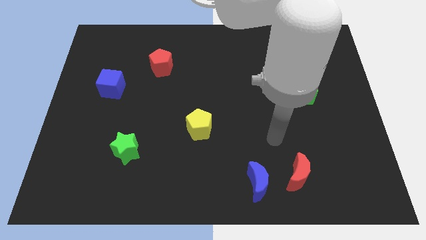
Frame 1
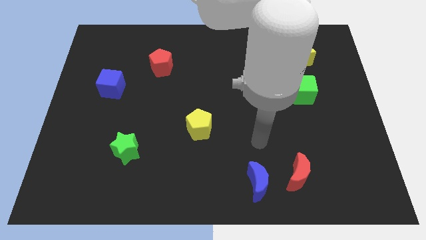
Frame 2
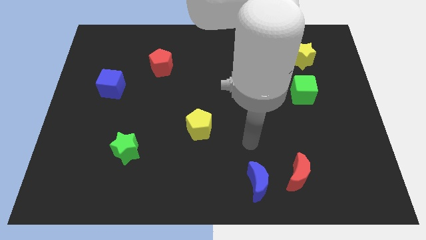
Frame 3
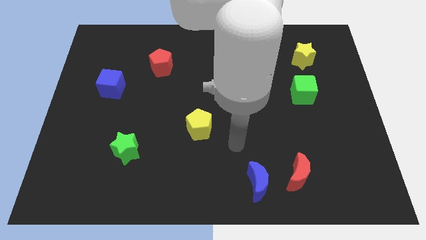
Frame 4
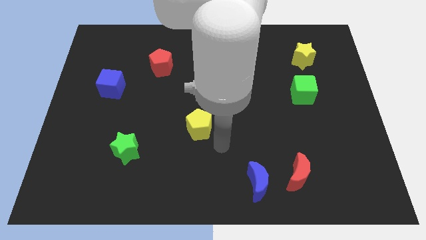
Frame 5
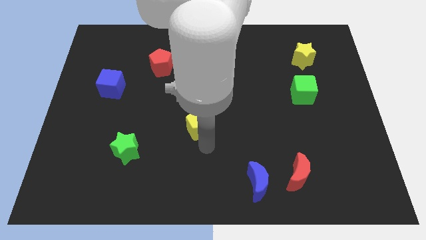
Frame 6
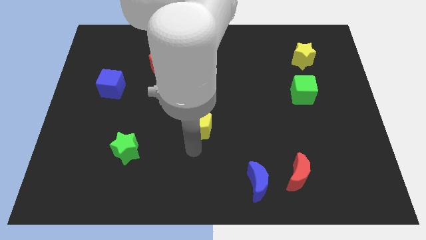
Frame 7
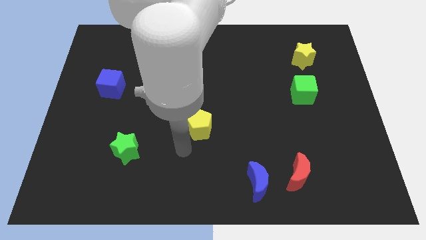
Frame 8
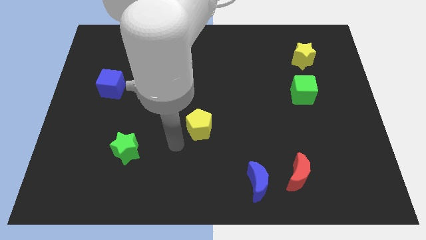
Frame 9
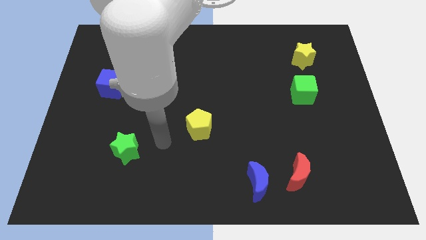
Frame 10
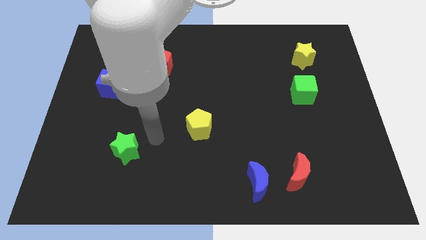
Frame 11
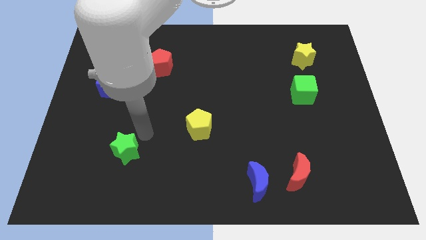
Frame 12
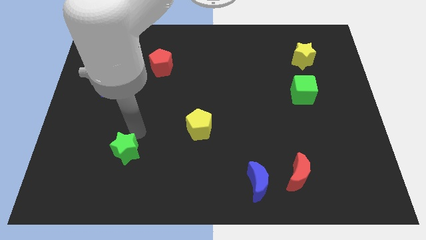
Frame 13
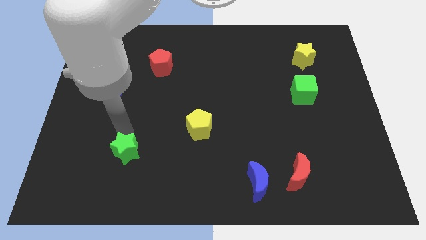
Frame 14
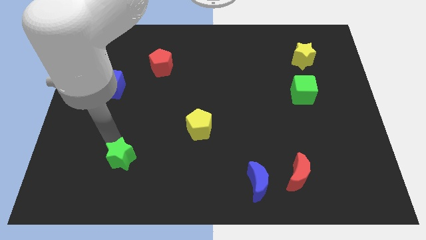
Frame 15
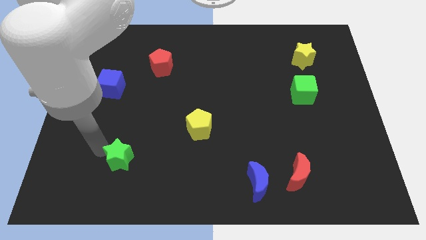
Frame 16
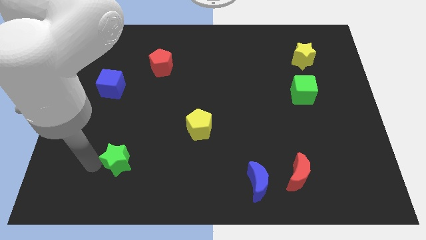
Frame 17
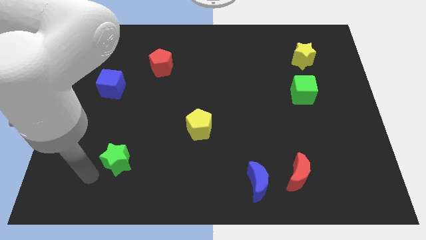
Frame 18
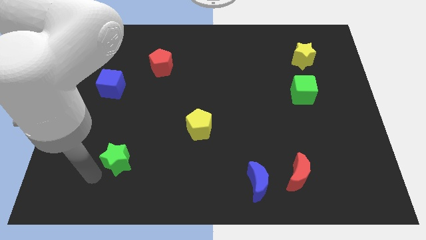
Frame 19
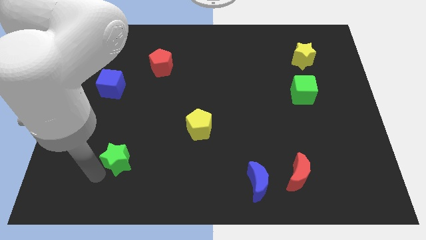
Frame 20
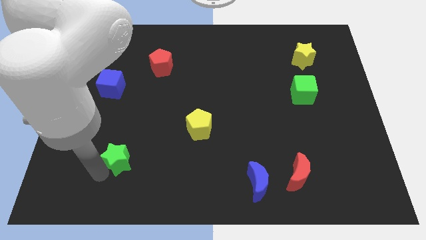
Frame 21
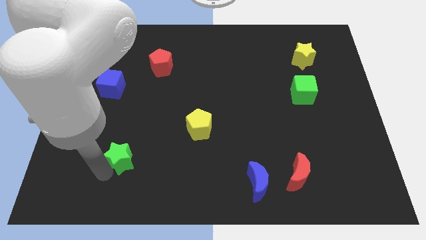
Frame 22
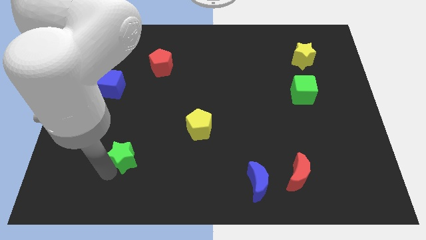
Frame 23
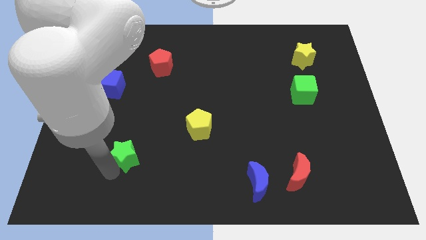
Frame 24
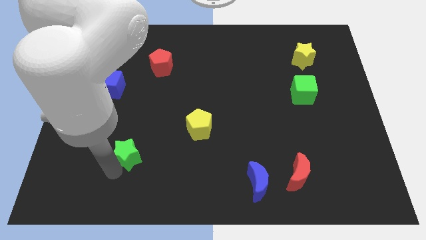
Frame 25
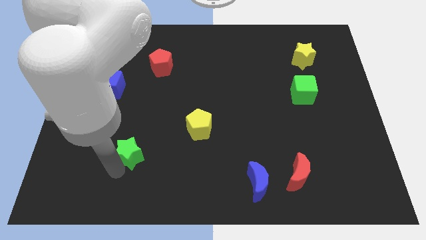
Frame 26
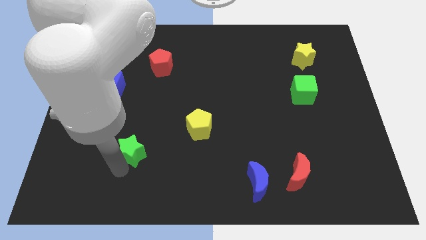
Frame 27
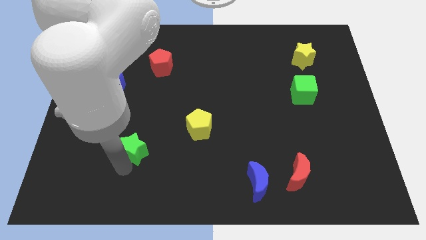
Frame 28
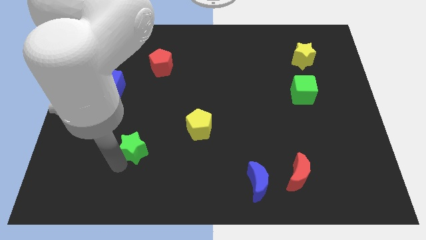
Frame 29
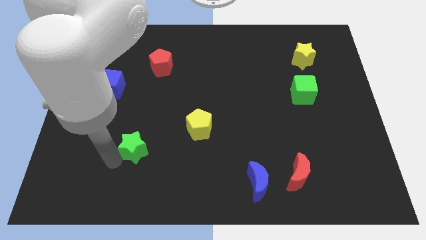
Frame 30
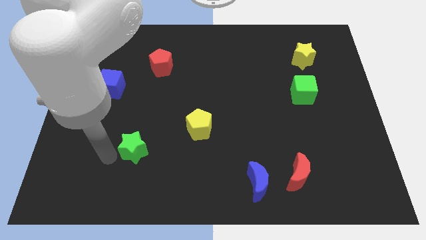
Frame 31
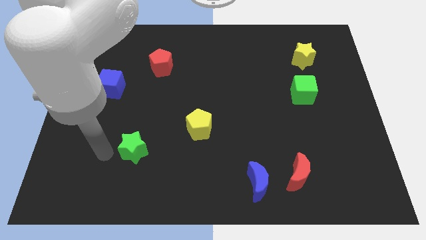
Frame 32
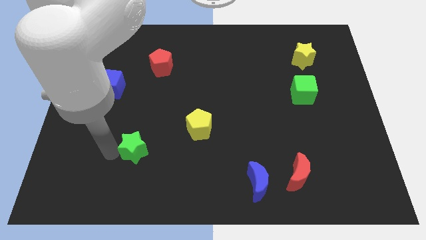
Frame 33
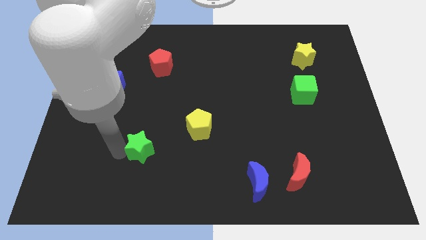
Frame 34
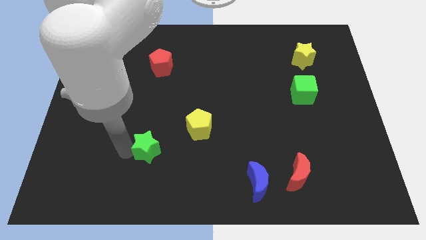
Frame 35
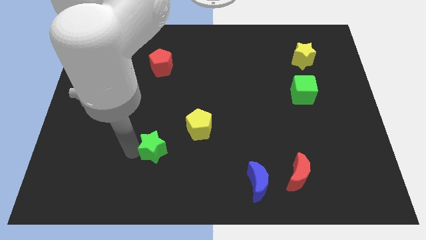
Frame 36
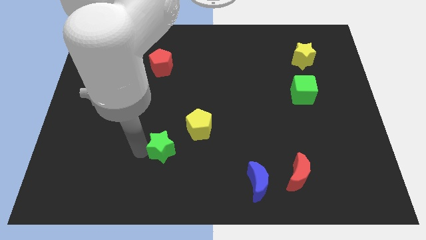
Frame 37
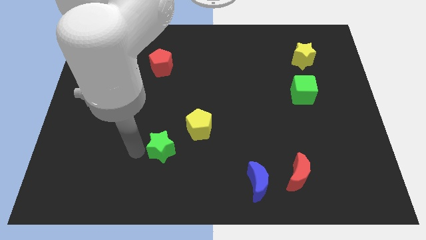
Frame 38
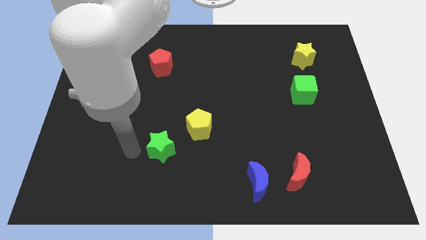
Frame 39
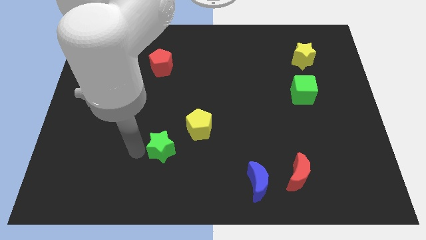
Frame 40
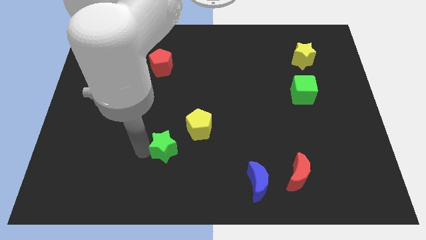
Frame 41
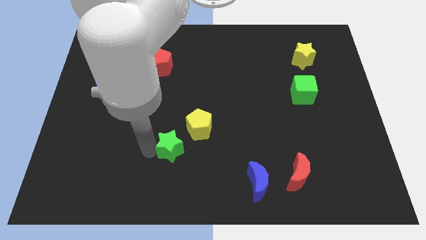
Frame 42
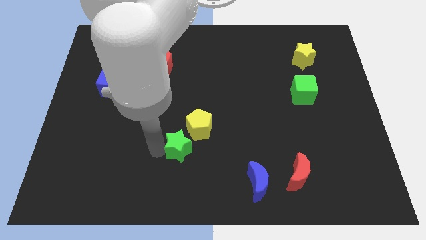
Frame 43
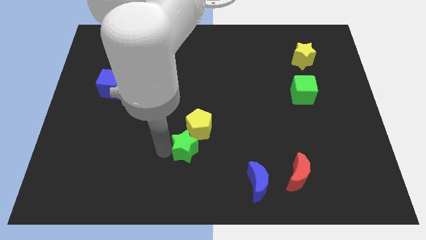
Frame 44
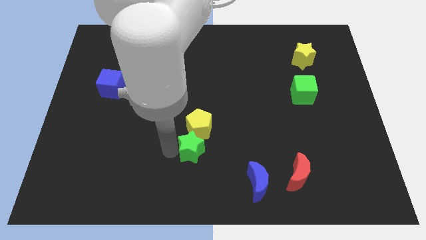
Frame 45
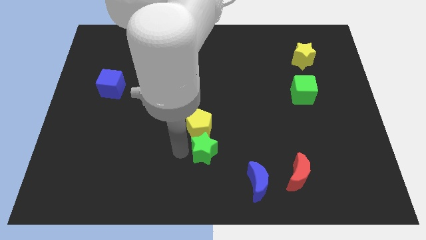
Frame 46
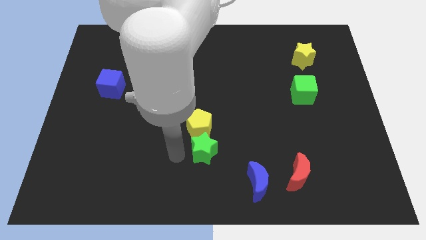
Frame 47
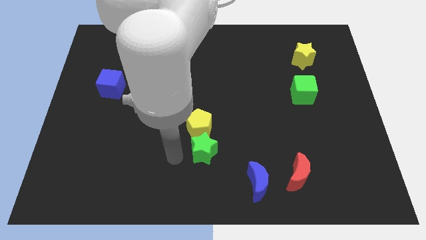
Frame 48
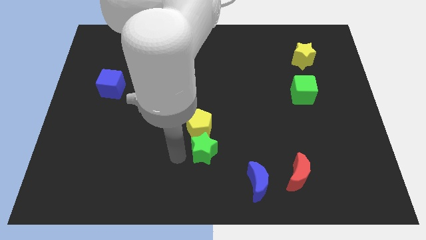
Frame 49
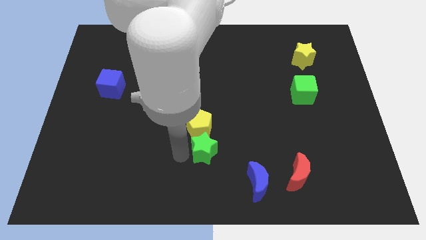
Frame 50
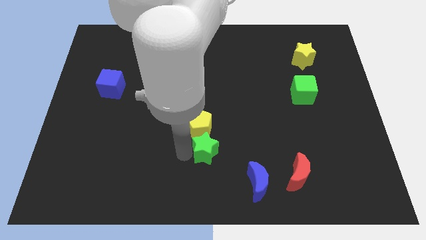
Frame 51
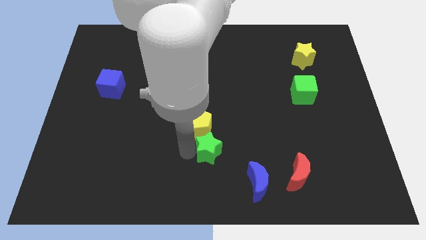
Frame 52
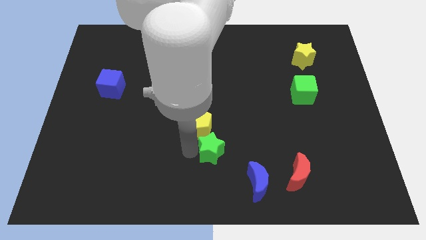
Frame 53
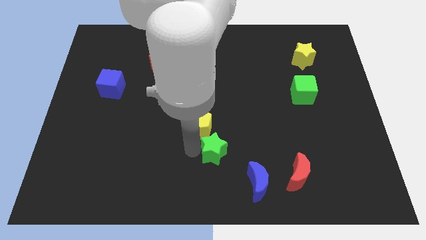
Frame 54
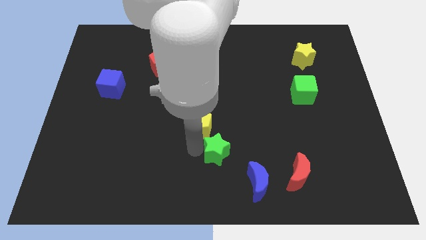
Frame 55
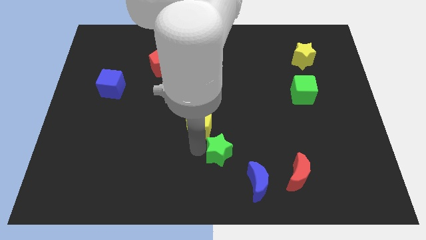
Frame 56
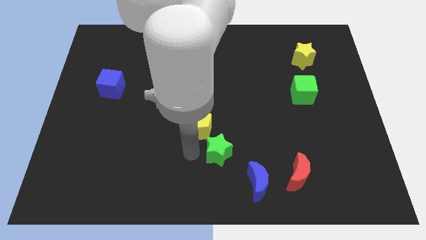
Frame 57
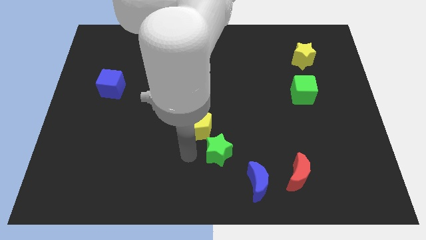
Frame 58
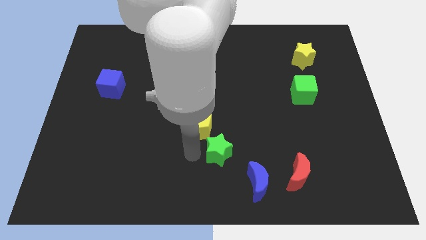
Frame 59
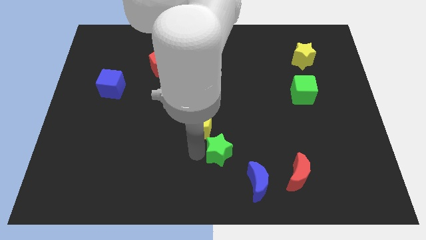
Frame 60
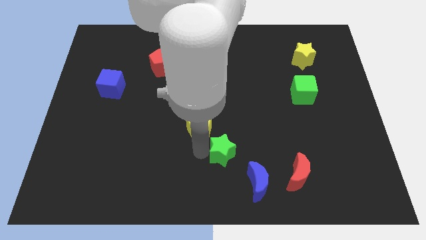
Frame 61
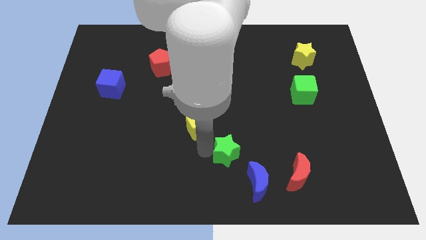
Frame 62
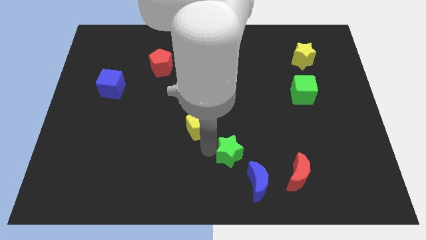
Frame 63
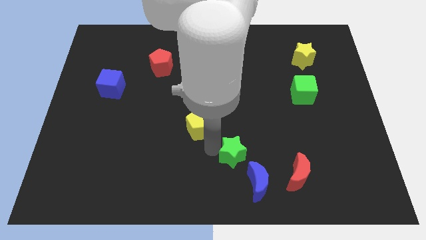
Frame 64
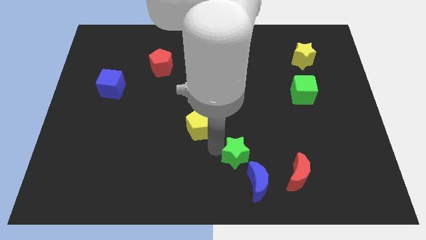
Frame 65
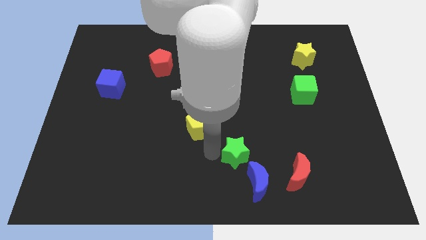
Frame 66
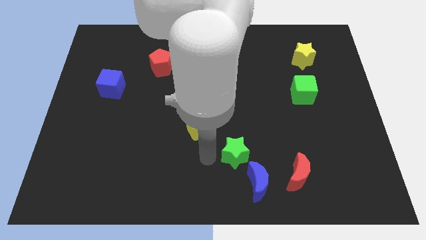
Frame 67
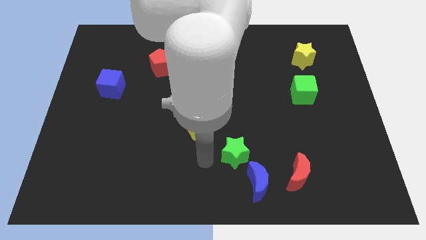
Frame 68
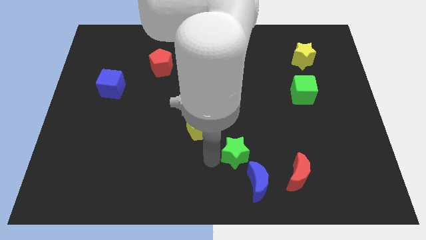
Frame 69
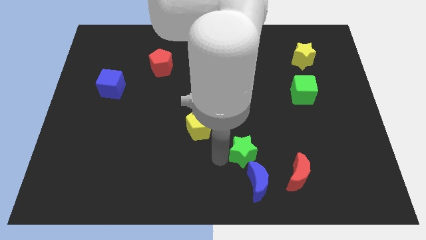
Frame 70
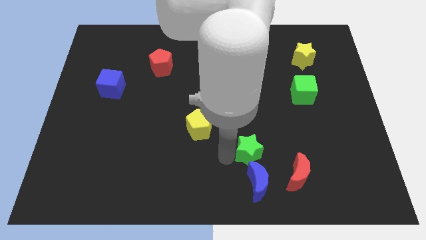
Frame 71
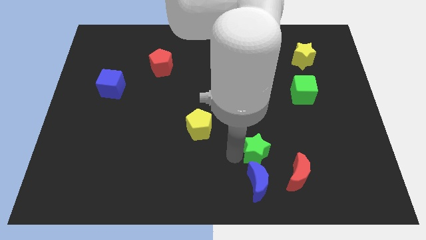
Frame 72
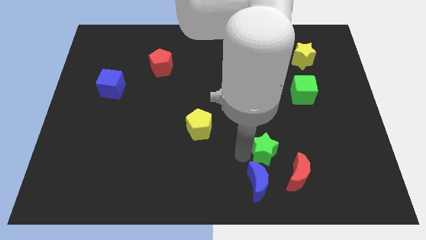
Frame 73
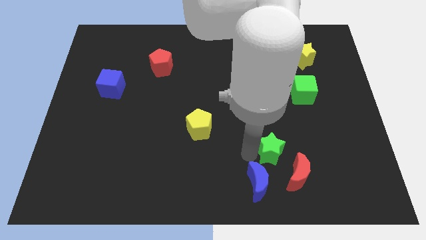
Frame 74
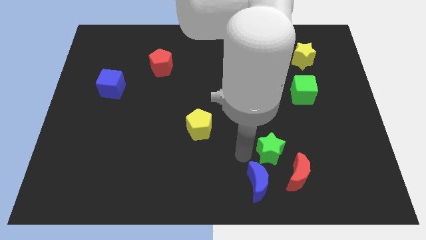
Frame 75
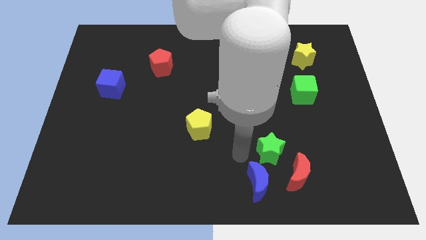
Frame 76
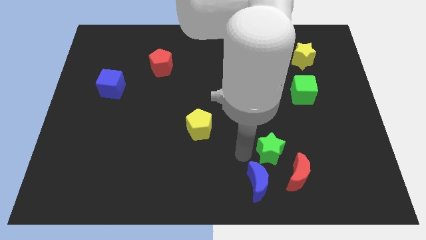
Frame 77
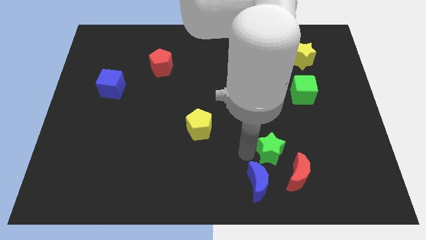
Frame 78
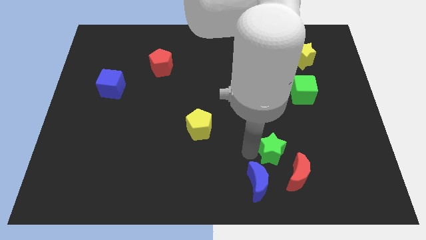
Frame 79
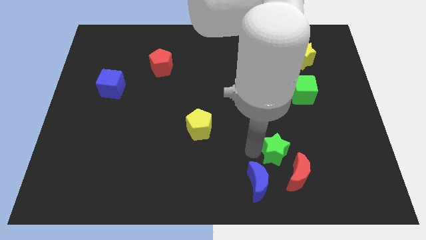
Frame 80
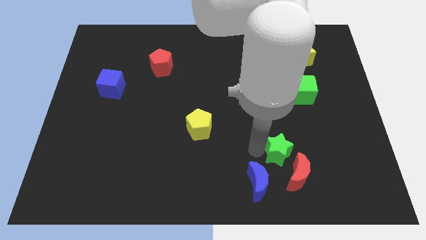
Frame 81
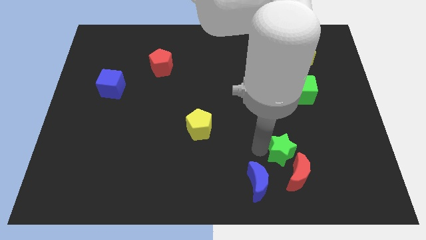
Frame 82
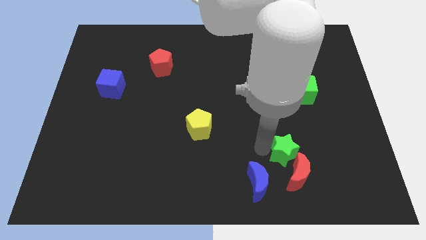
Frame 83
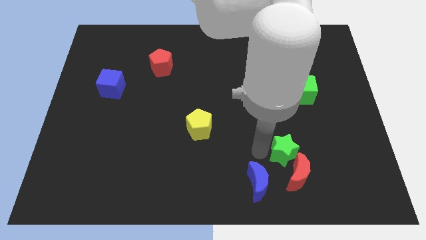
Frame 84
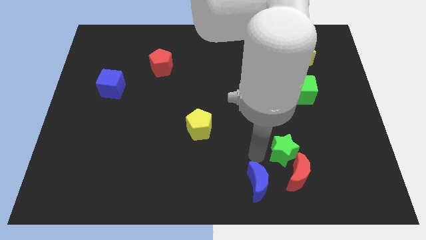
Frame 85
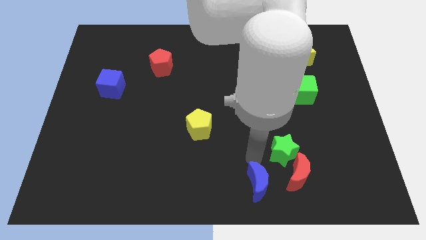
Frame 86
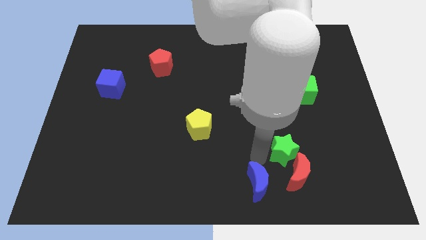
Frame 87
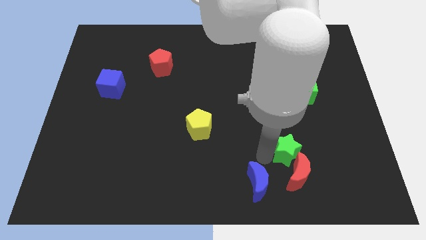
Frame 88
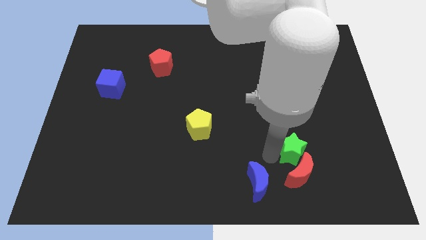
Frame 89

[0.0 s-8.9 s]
move the green star to the top right of the red moon
